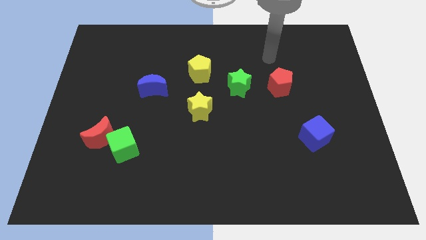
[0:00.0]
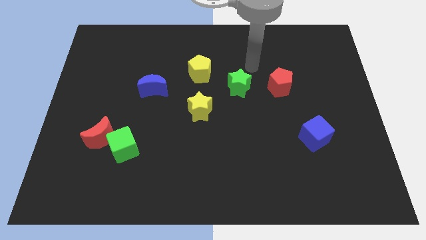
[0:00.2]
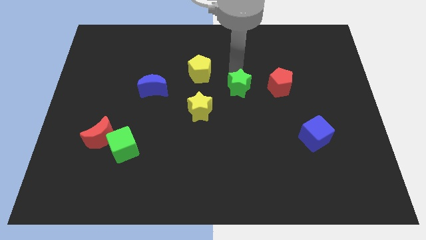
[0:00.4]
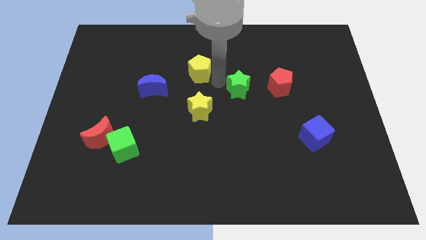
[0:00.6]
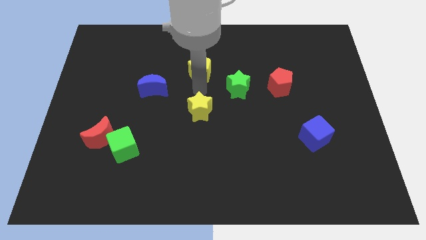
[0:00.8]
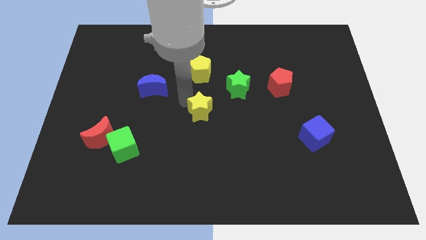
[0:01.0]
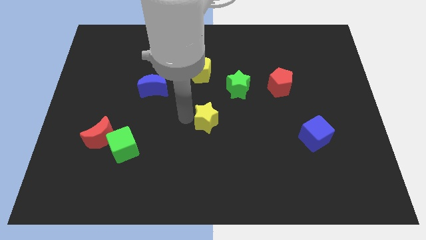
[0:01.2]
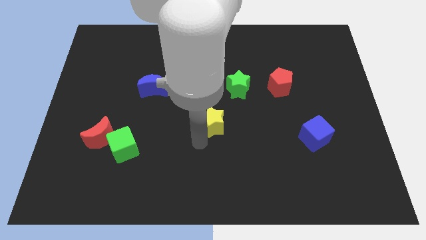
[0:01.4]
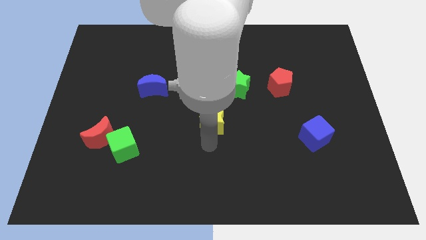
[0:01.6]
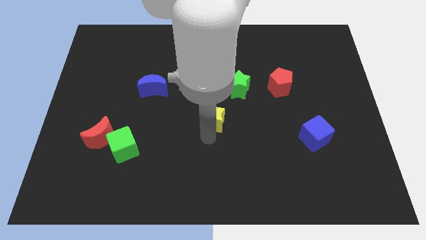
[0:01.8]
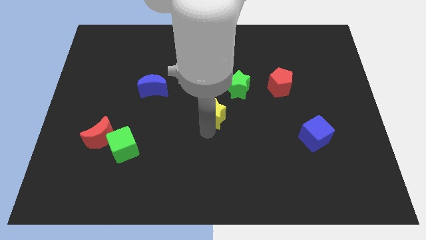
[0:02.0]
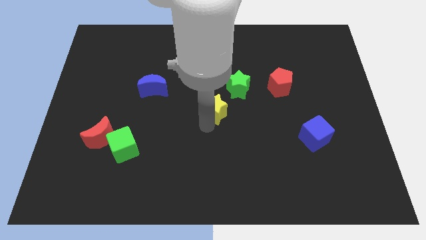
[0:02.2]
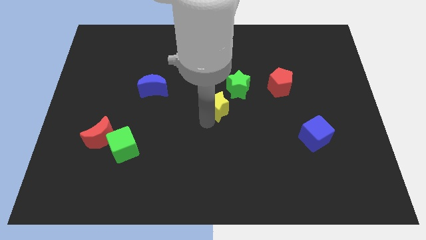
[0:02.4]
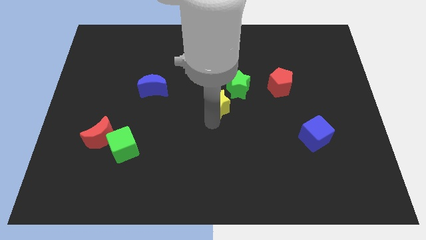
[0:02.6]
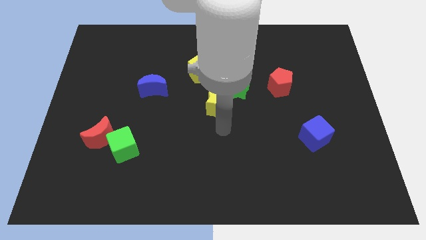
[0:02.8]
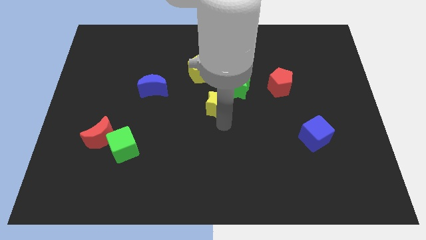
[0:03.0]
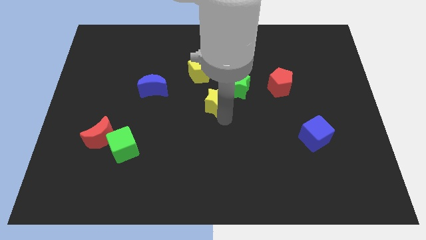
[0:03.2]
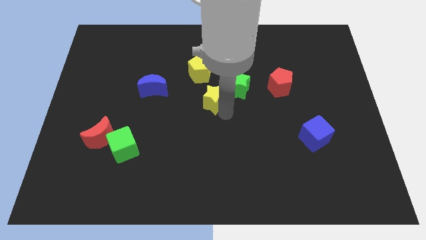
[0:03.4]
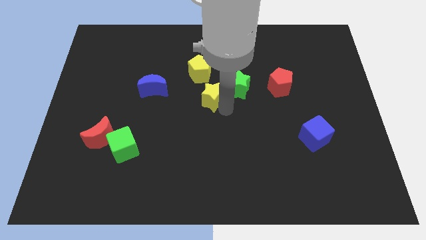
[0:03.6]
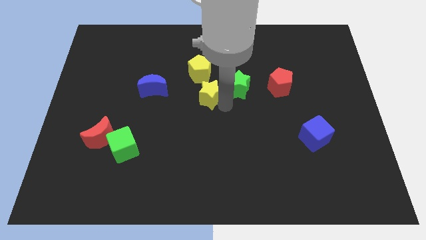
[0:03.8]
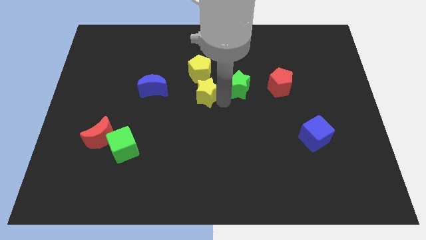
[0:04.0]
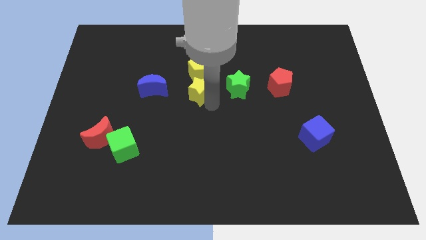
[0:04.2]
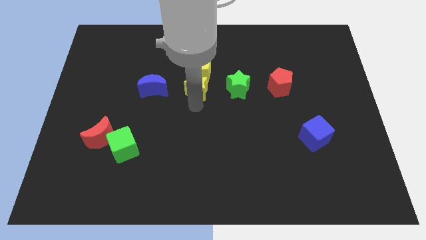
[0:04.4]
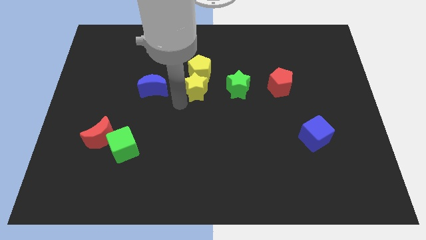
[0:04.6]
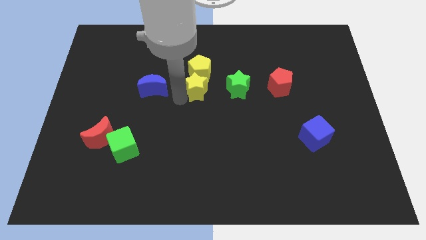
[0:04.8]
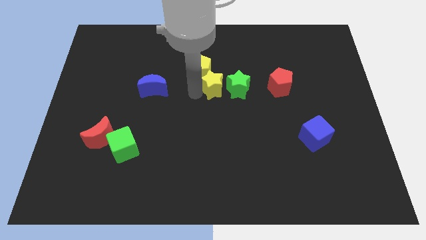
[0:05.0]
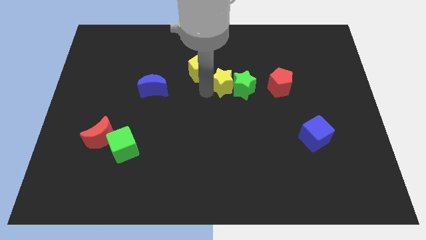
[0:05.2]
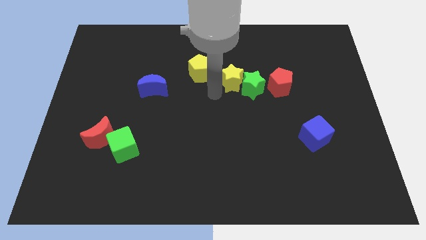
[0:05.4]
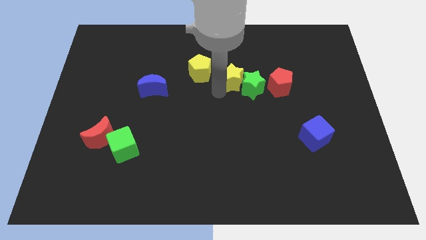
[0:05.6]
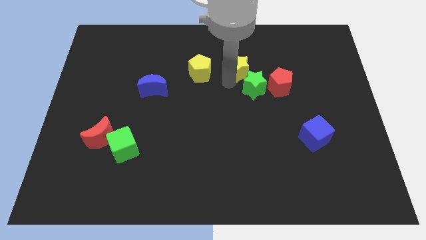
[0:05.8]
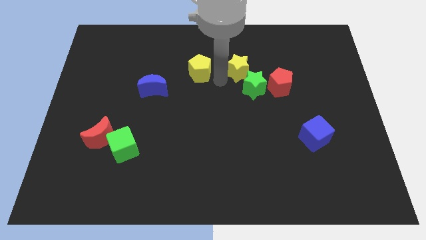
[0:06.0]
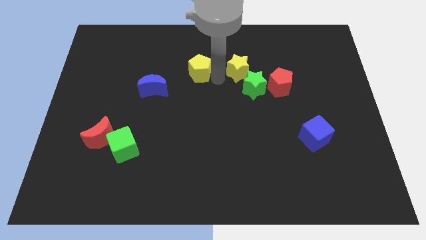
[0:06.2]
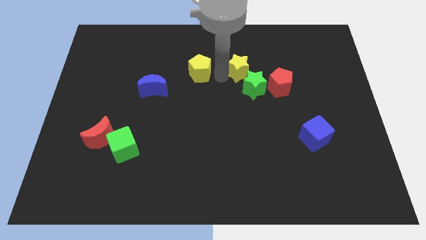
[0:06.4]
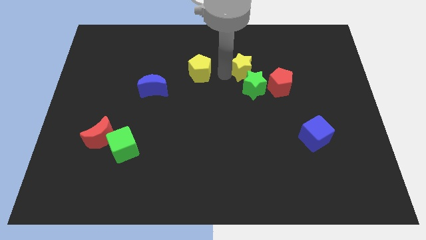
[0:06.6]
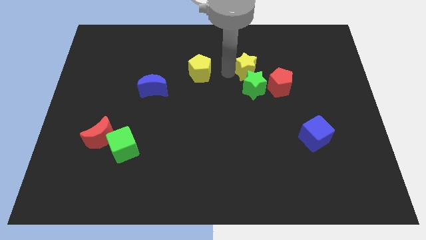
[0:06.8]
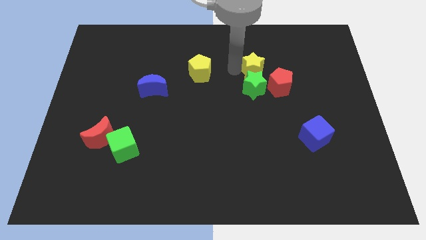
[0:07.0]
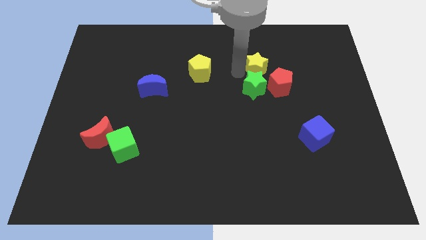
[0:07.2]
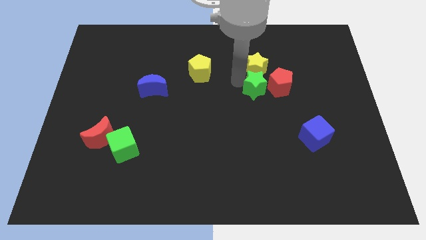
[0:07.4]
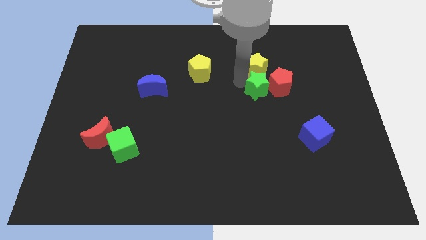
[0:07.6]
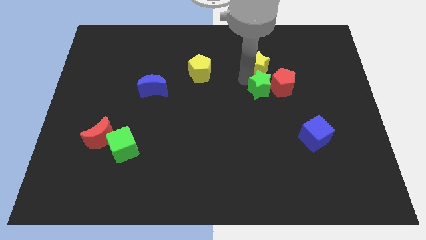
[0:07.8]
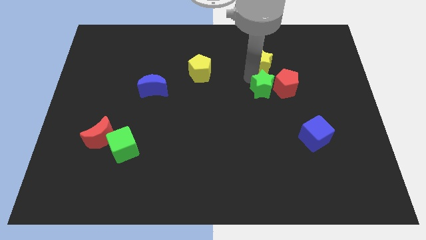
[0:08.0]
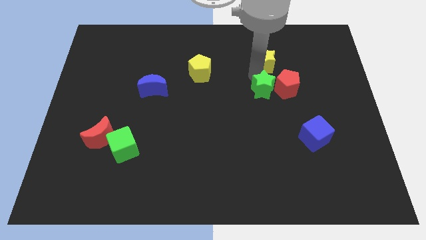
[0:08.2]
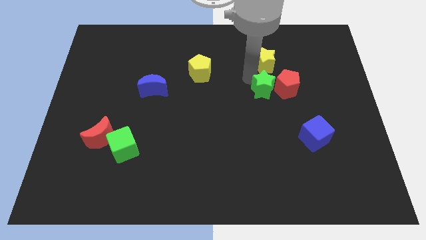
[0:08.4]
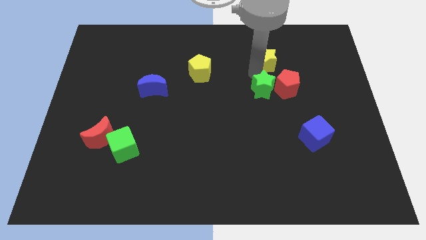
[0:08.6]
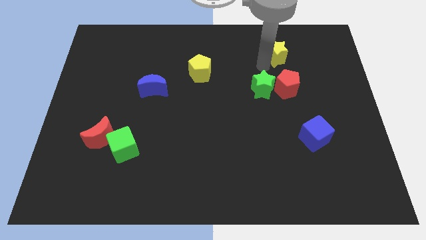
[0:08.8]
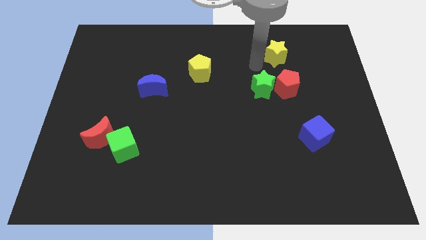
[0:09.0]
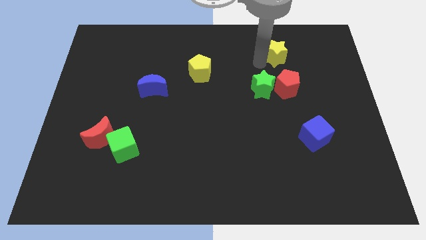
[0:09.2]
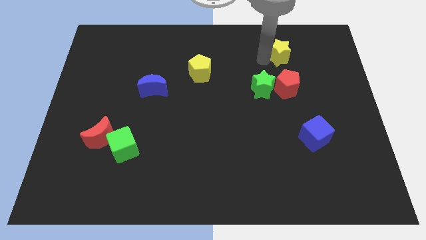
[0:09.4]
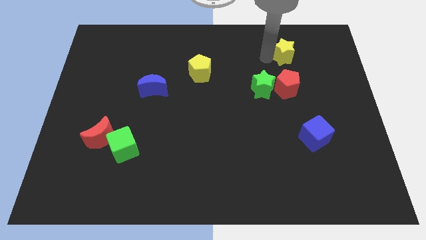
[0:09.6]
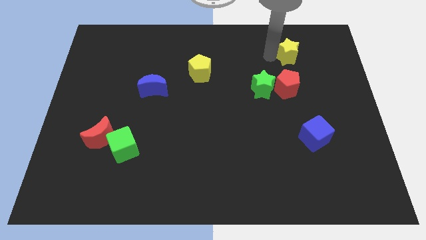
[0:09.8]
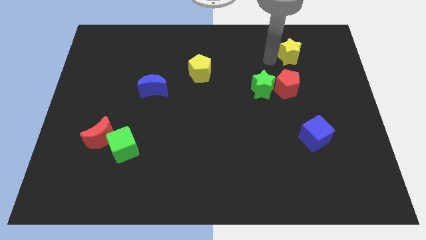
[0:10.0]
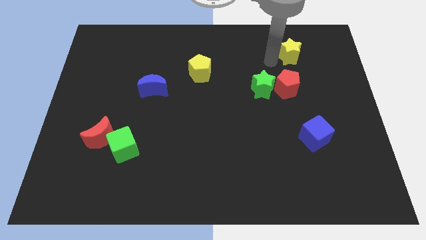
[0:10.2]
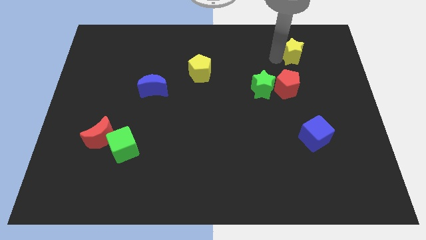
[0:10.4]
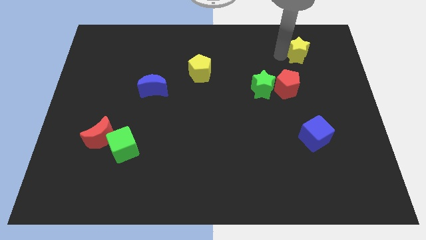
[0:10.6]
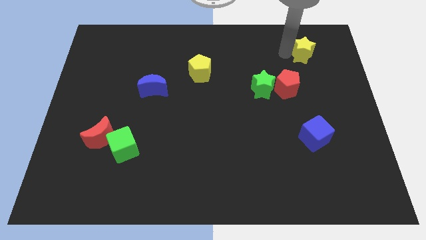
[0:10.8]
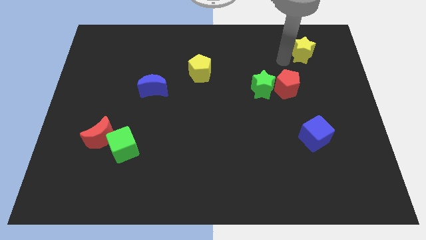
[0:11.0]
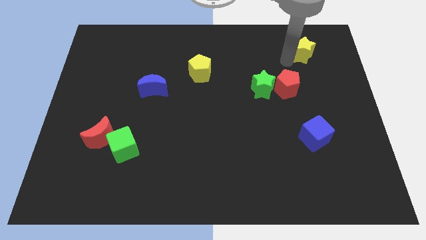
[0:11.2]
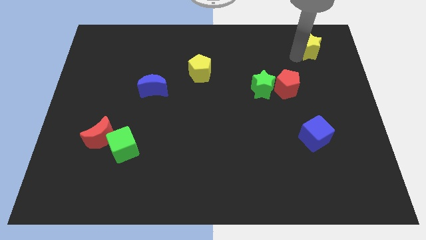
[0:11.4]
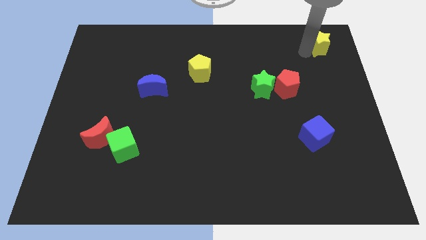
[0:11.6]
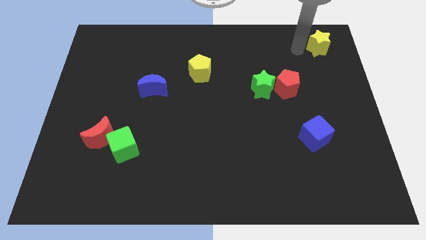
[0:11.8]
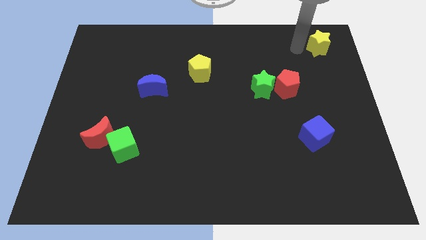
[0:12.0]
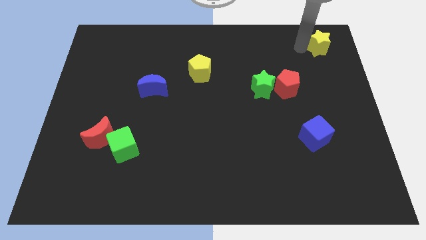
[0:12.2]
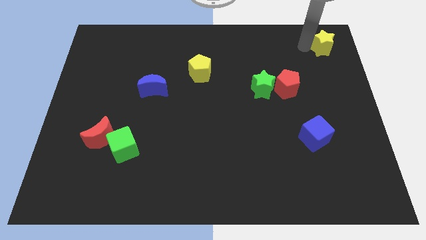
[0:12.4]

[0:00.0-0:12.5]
push the yellow star to the upper right corner
